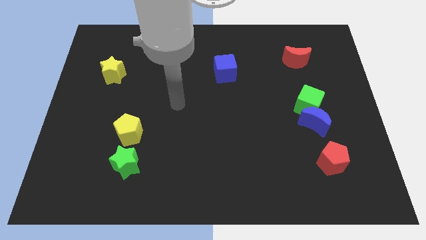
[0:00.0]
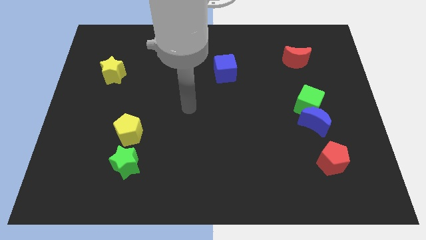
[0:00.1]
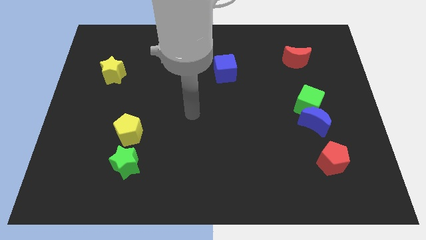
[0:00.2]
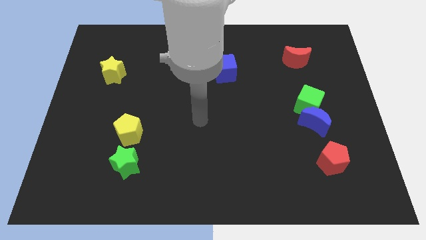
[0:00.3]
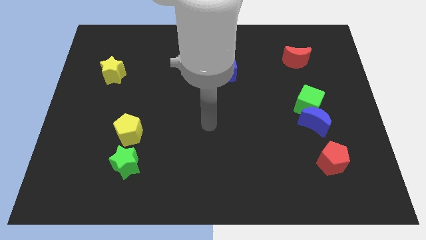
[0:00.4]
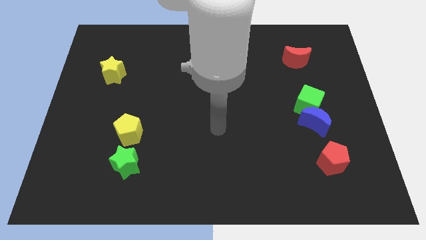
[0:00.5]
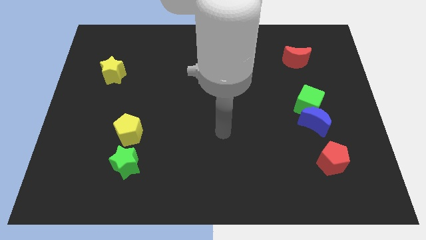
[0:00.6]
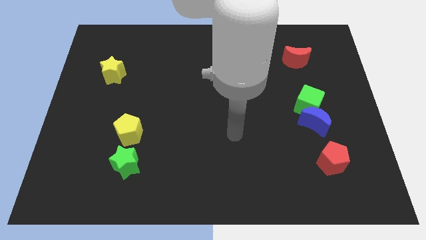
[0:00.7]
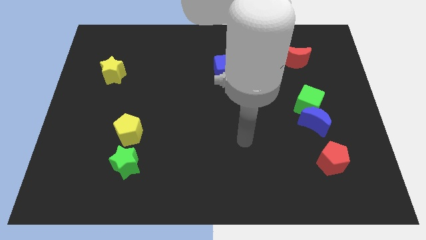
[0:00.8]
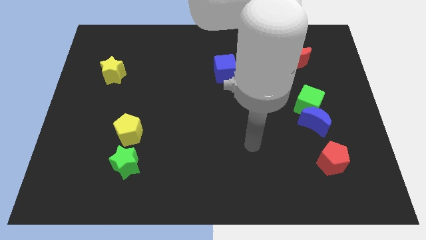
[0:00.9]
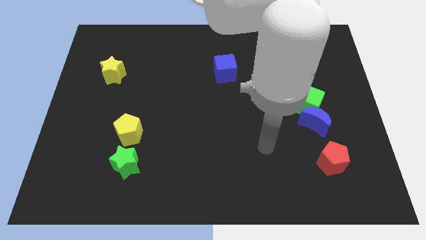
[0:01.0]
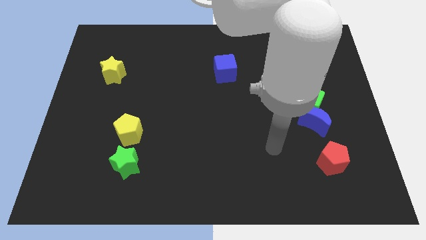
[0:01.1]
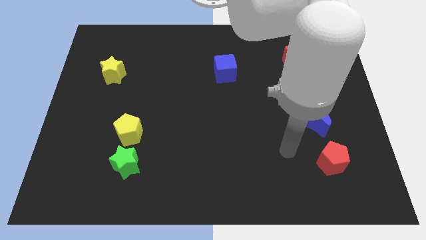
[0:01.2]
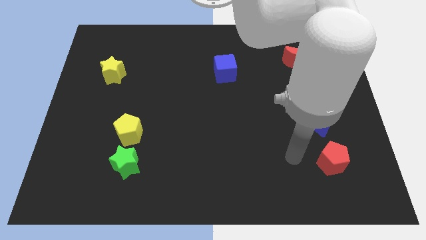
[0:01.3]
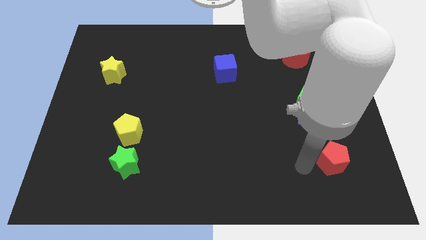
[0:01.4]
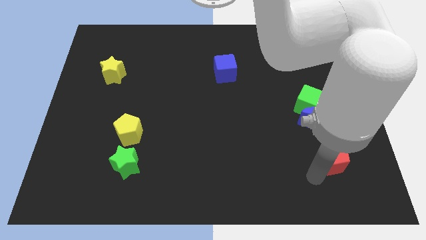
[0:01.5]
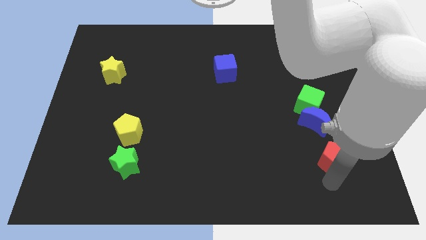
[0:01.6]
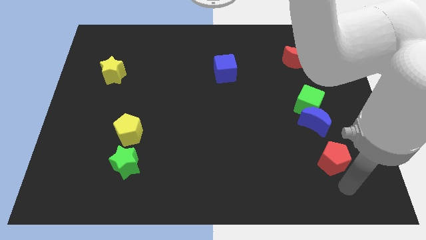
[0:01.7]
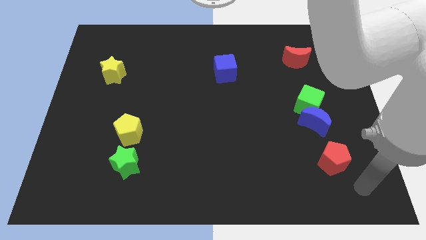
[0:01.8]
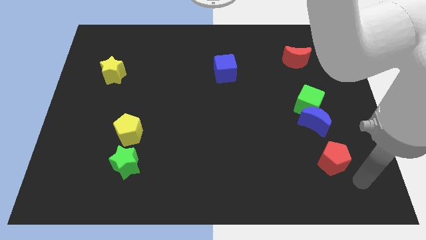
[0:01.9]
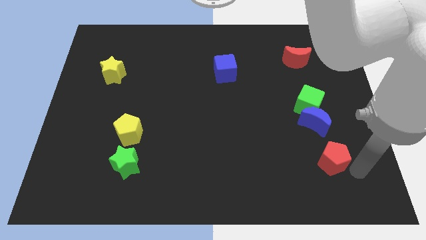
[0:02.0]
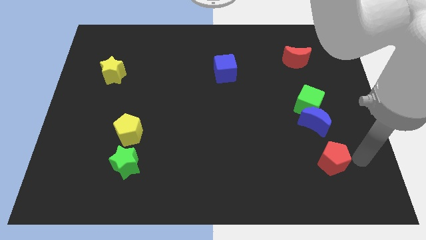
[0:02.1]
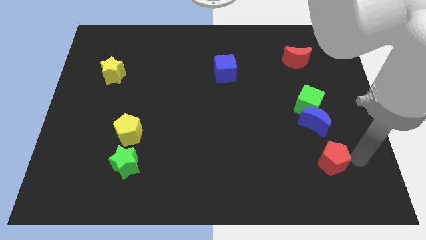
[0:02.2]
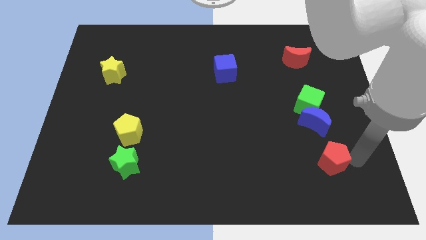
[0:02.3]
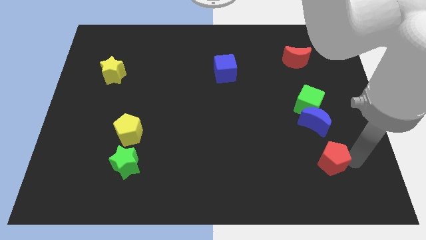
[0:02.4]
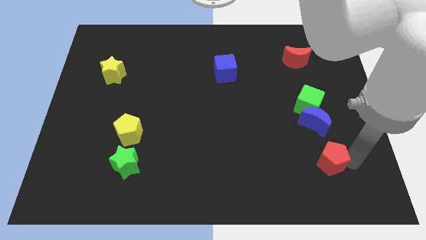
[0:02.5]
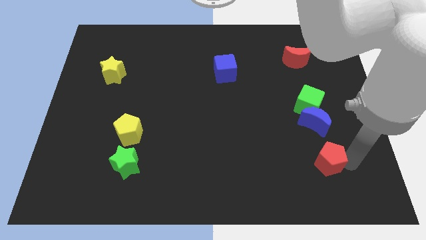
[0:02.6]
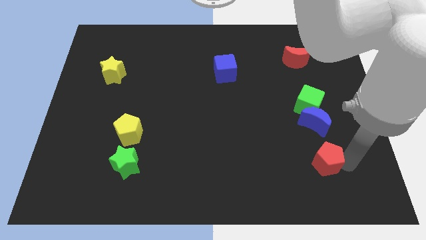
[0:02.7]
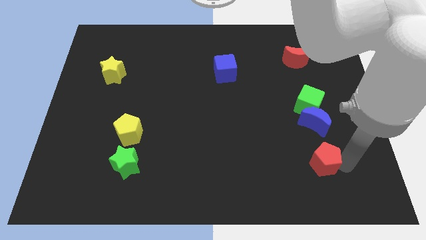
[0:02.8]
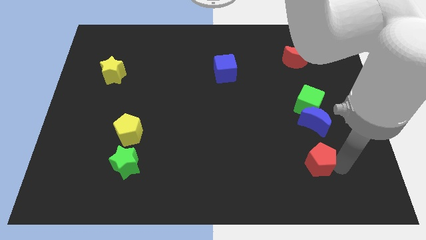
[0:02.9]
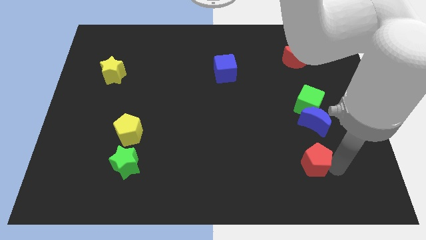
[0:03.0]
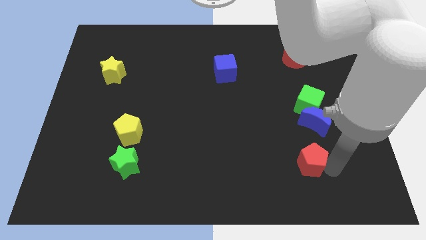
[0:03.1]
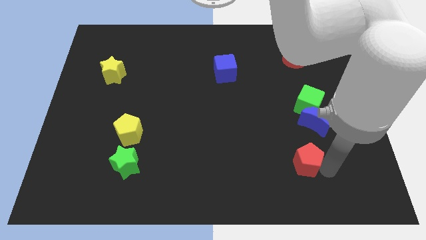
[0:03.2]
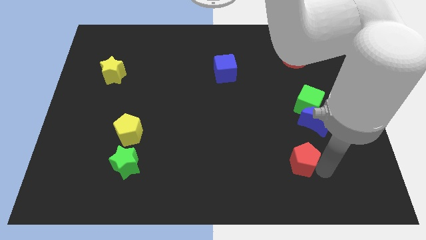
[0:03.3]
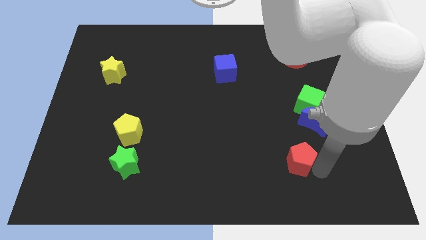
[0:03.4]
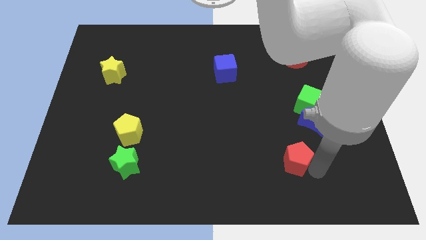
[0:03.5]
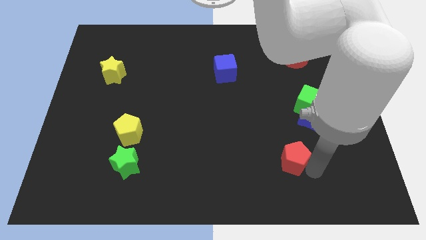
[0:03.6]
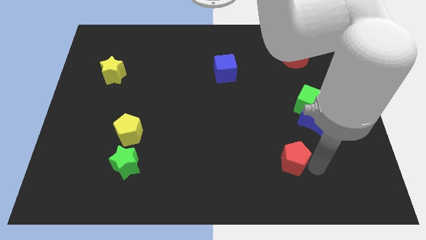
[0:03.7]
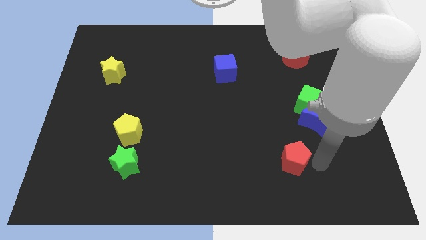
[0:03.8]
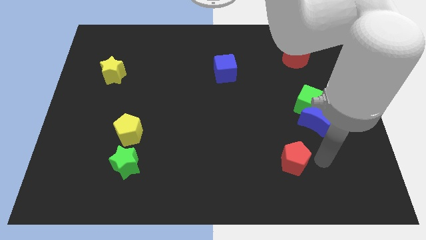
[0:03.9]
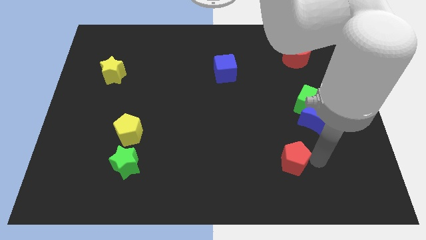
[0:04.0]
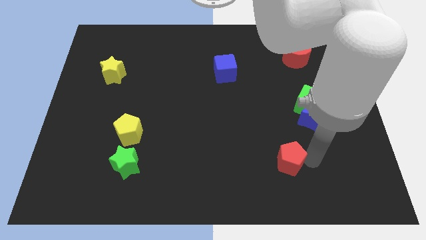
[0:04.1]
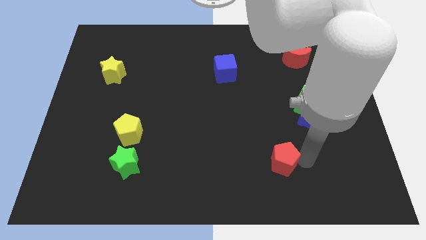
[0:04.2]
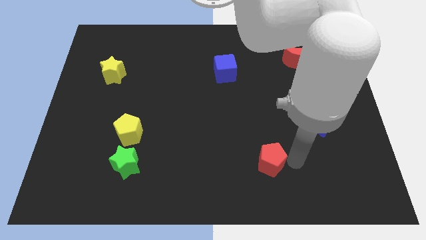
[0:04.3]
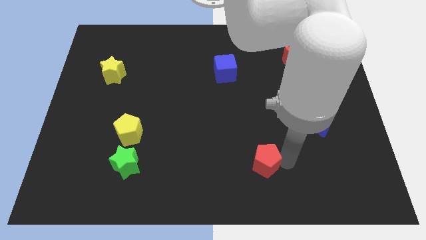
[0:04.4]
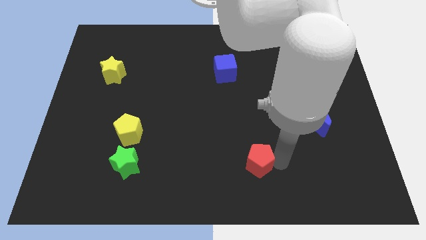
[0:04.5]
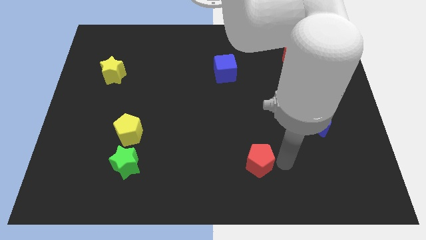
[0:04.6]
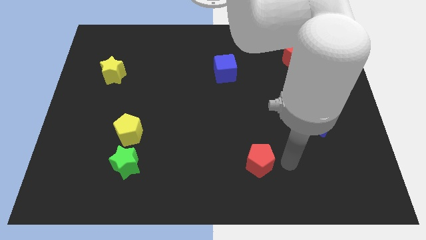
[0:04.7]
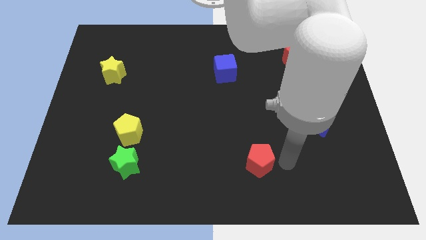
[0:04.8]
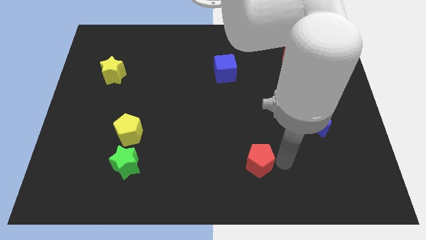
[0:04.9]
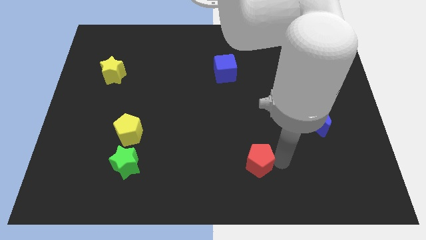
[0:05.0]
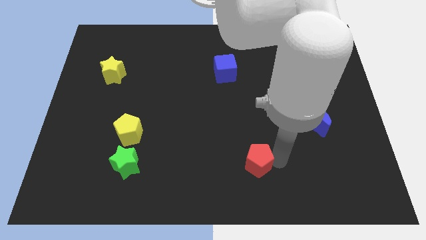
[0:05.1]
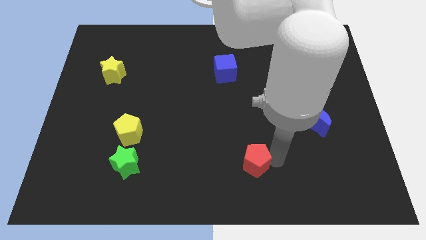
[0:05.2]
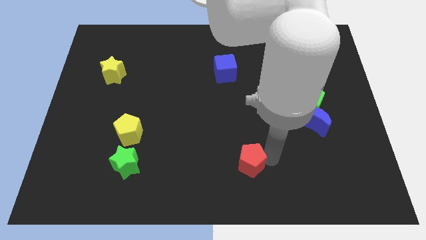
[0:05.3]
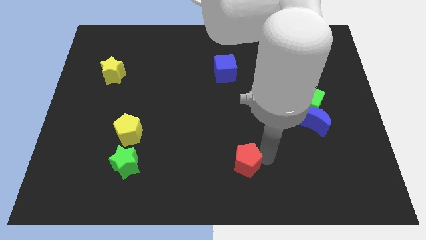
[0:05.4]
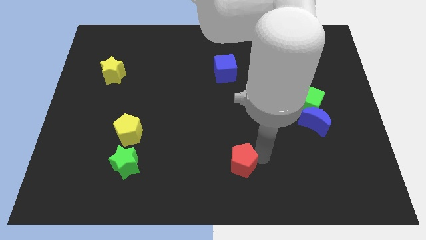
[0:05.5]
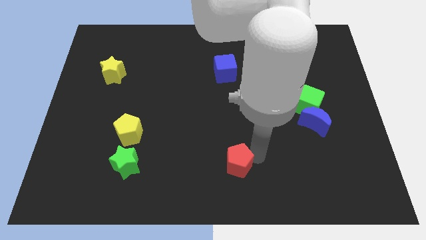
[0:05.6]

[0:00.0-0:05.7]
move the red pentagon left

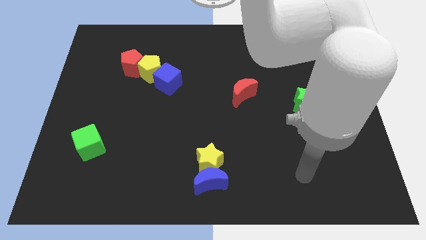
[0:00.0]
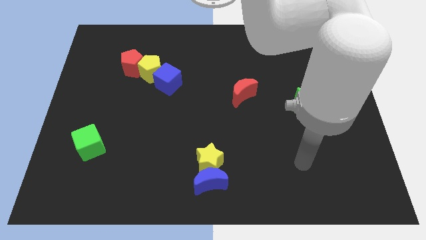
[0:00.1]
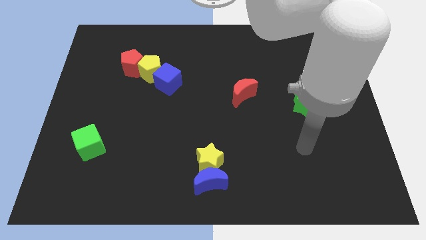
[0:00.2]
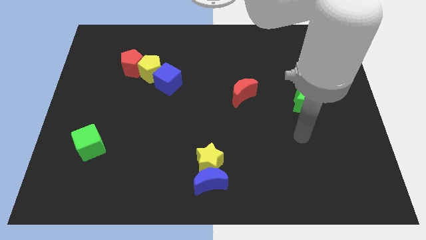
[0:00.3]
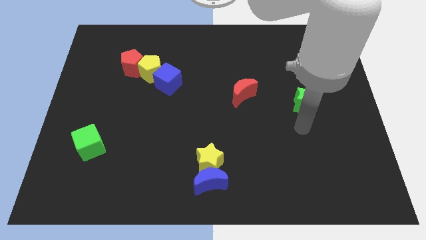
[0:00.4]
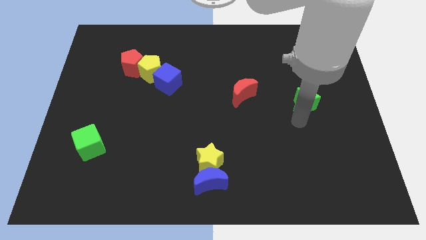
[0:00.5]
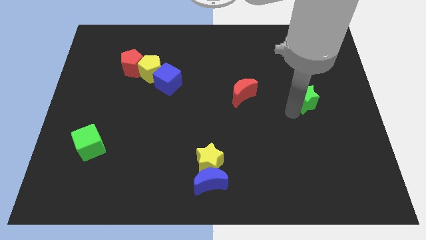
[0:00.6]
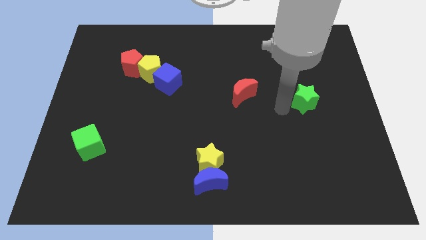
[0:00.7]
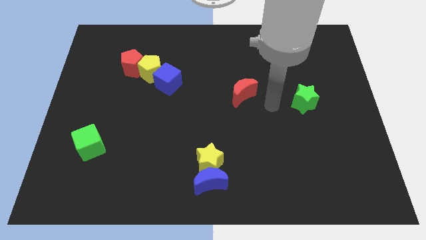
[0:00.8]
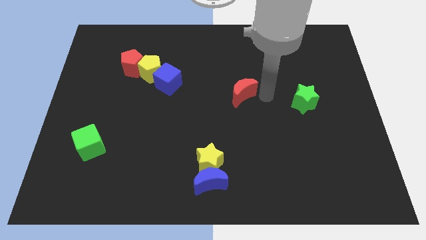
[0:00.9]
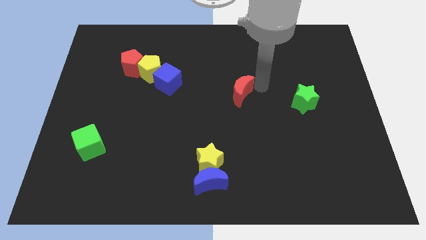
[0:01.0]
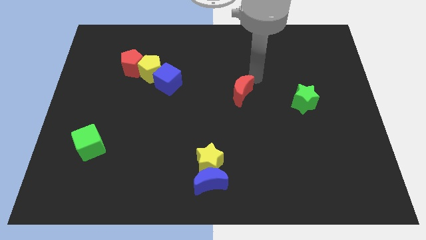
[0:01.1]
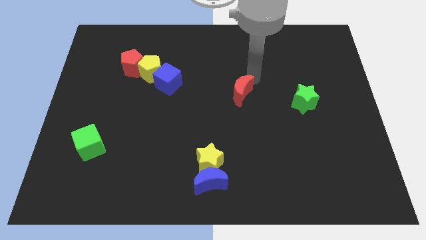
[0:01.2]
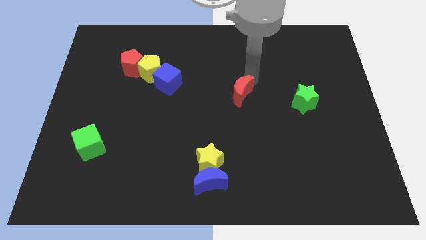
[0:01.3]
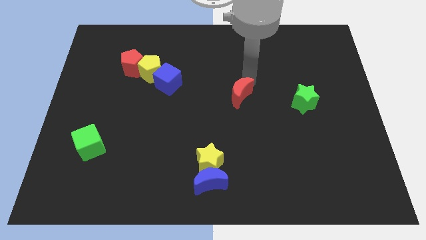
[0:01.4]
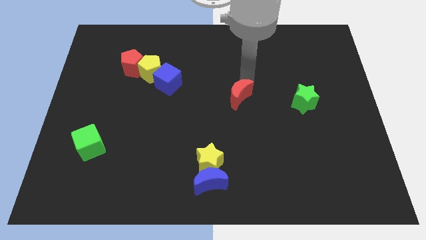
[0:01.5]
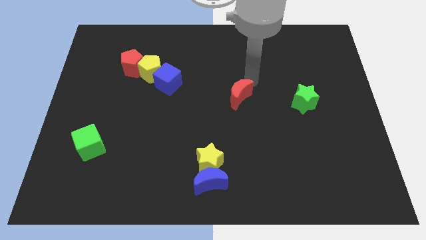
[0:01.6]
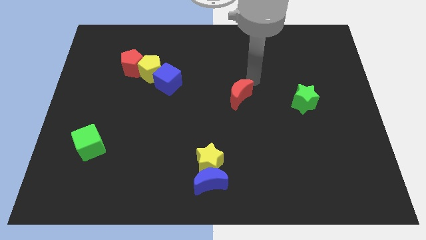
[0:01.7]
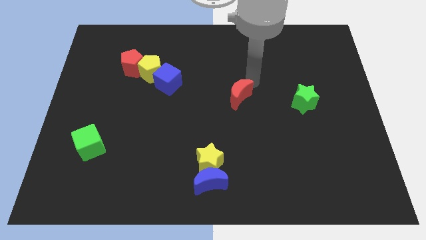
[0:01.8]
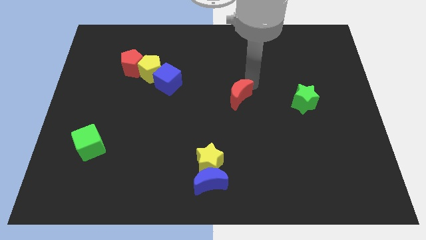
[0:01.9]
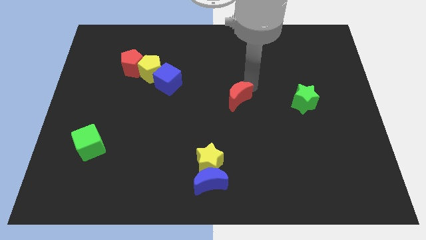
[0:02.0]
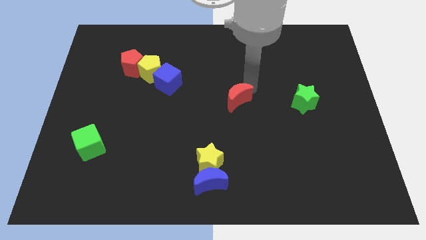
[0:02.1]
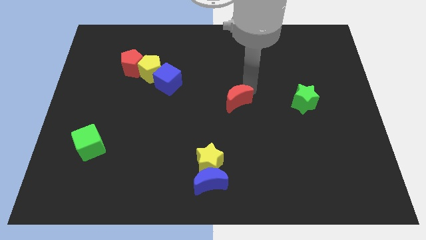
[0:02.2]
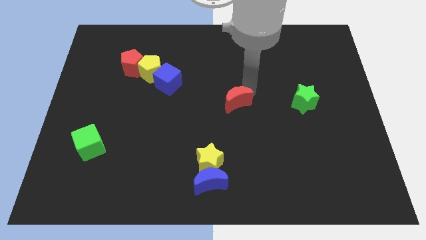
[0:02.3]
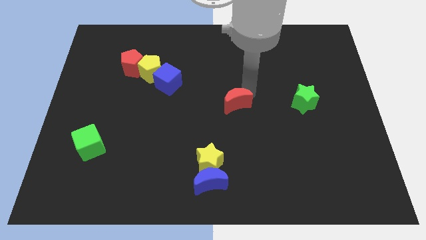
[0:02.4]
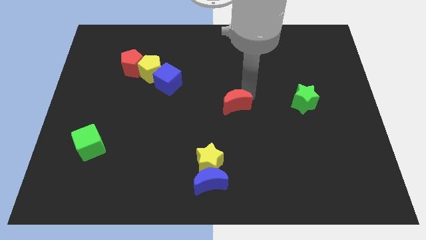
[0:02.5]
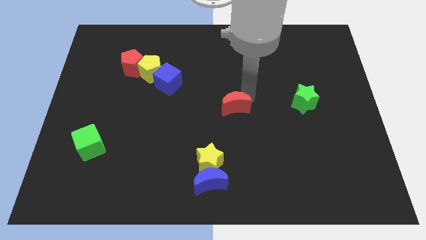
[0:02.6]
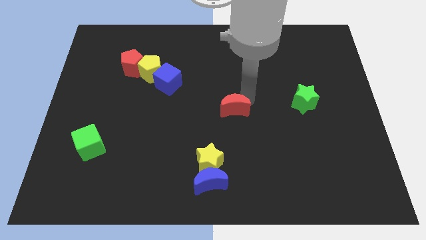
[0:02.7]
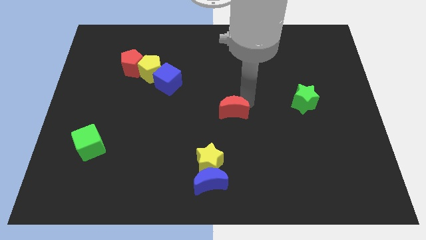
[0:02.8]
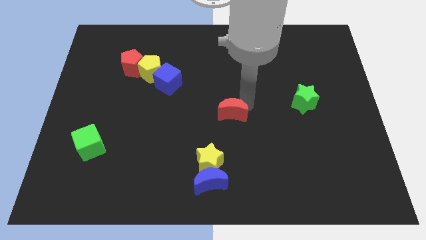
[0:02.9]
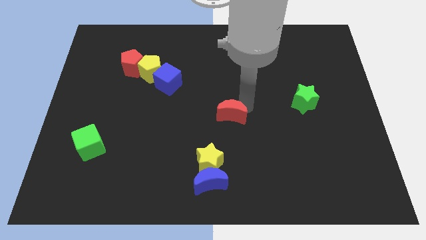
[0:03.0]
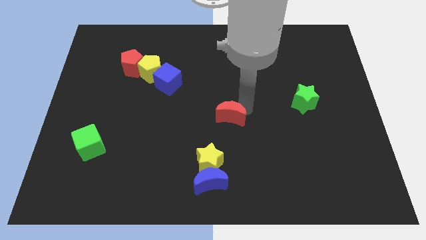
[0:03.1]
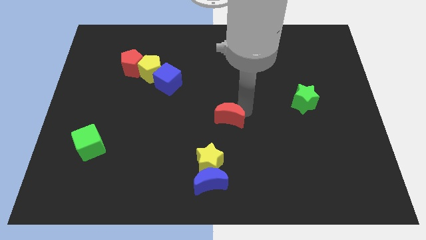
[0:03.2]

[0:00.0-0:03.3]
push the red moon a bit down and then to the left
